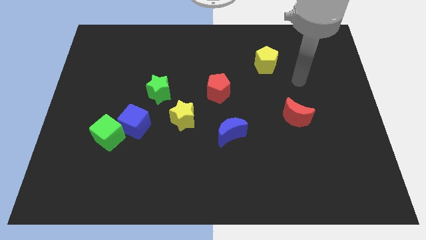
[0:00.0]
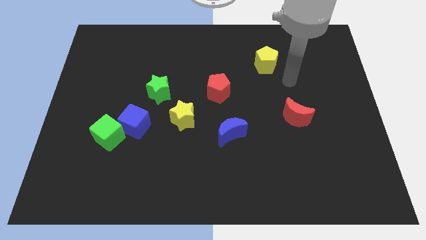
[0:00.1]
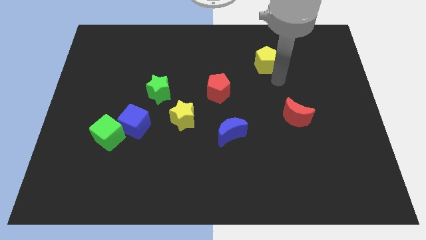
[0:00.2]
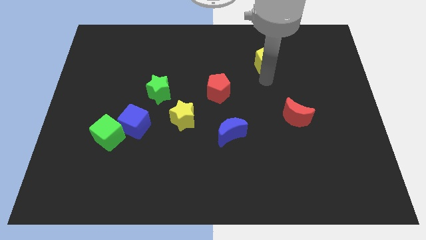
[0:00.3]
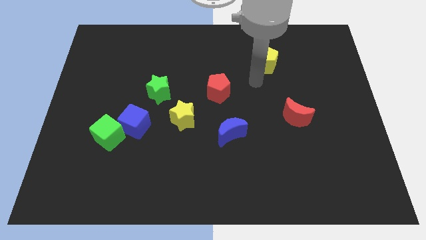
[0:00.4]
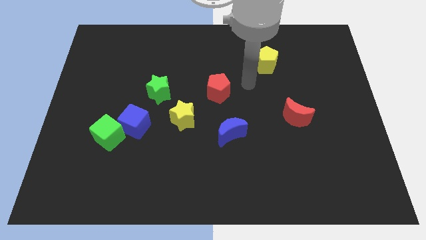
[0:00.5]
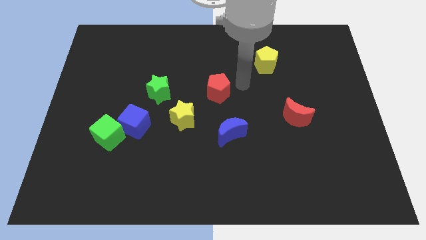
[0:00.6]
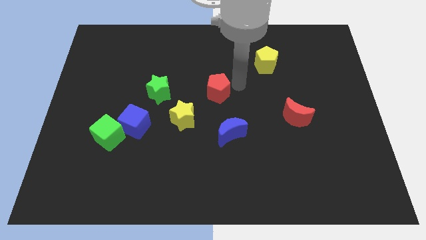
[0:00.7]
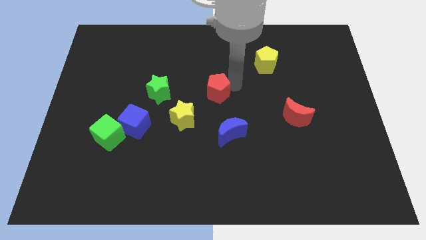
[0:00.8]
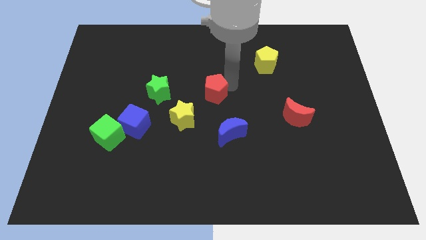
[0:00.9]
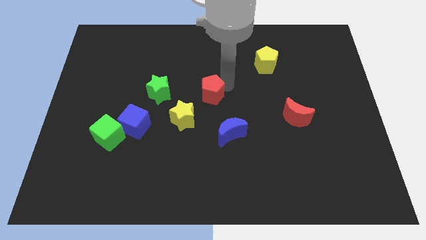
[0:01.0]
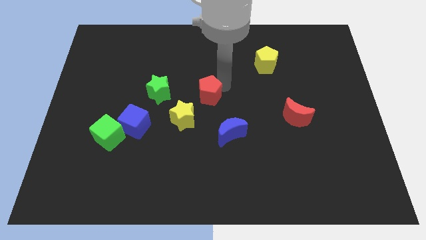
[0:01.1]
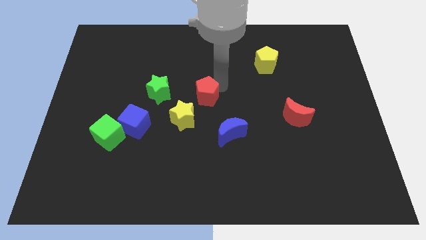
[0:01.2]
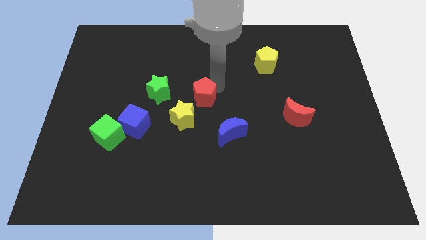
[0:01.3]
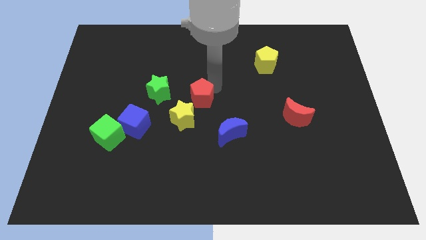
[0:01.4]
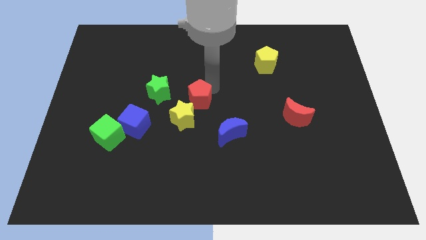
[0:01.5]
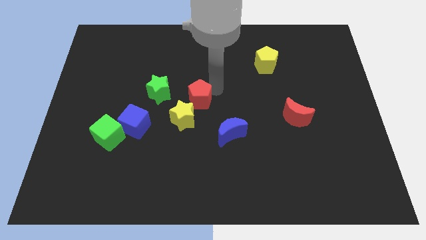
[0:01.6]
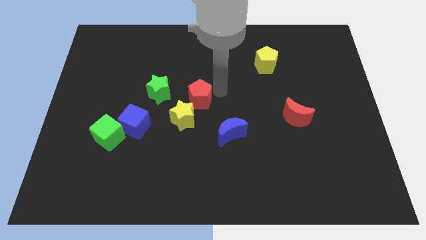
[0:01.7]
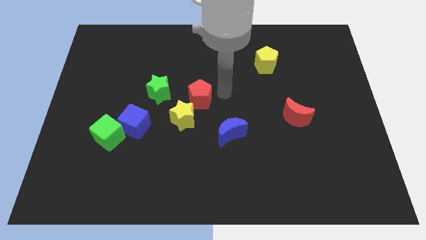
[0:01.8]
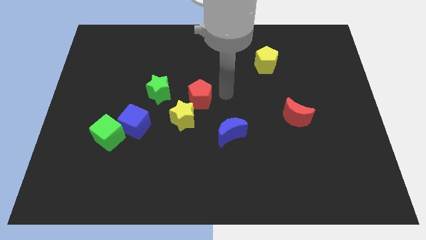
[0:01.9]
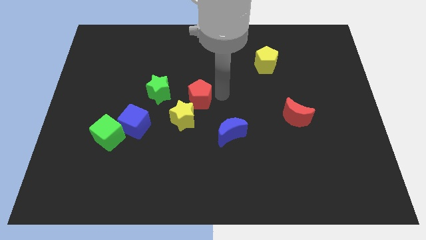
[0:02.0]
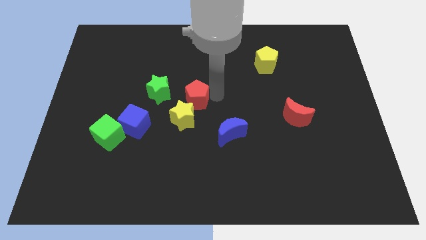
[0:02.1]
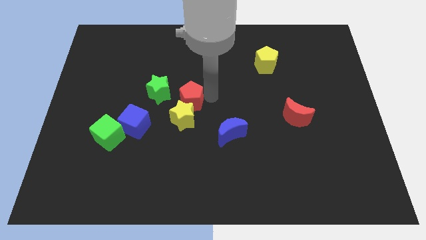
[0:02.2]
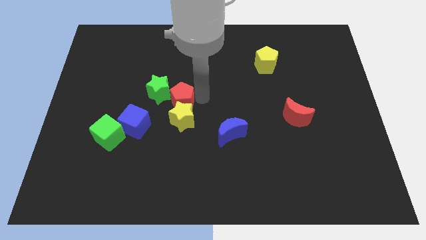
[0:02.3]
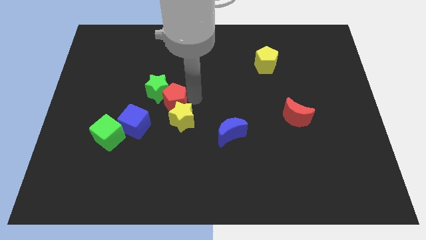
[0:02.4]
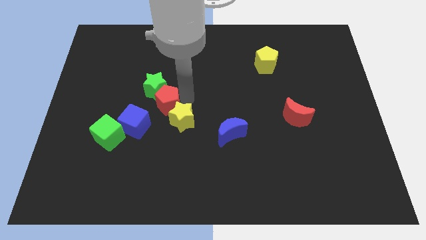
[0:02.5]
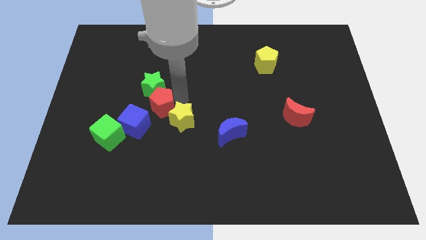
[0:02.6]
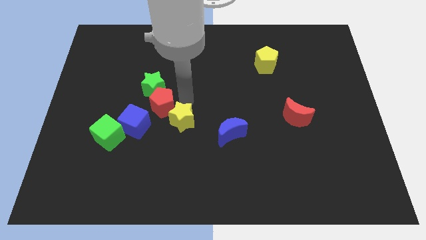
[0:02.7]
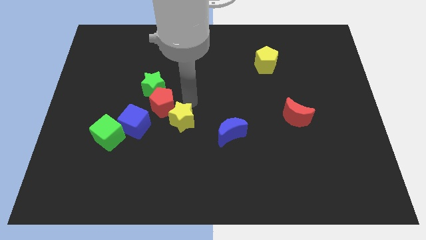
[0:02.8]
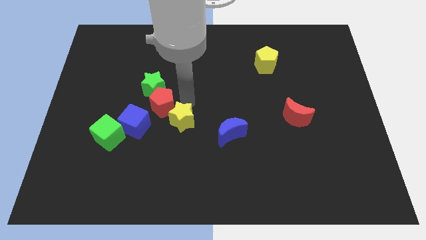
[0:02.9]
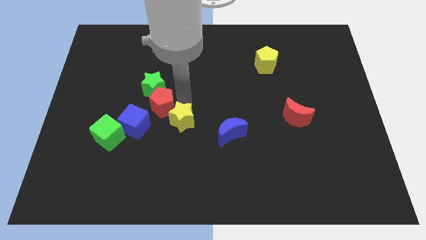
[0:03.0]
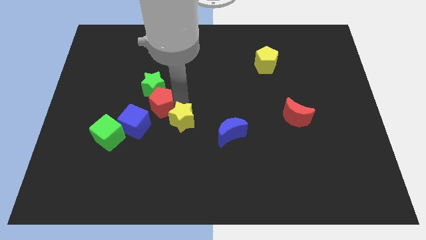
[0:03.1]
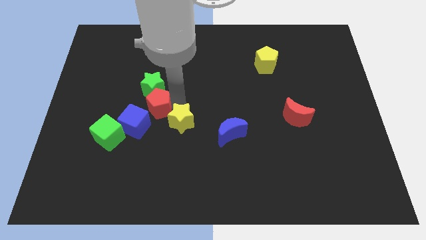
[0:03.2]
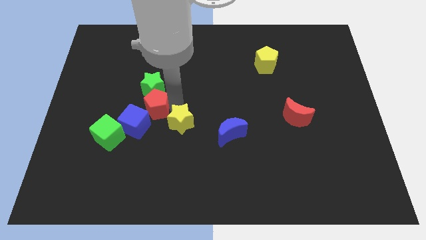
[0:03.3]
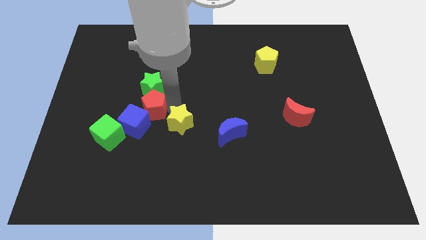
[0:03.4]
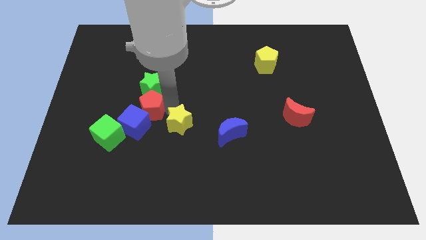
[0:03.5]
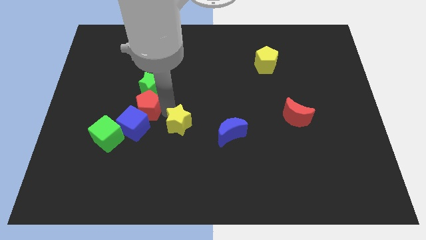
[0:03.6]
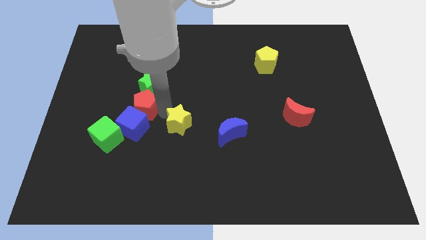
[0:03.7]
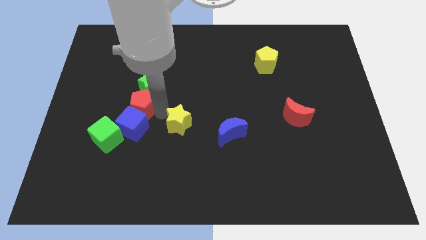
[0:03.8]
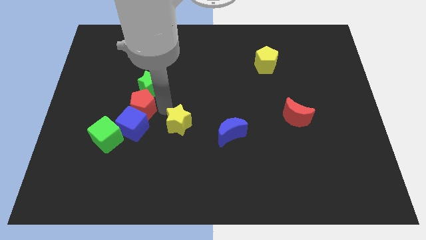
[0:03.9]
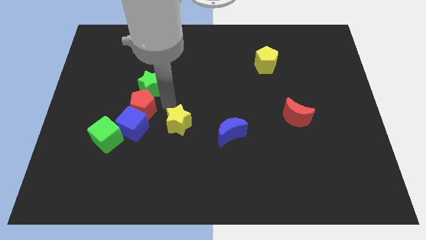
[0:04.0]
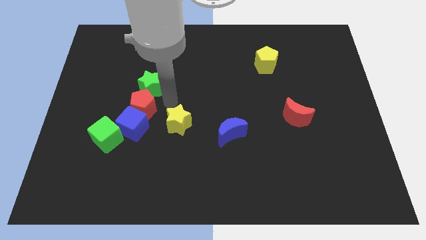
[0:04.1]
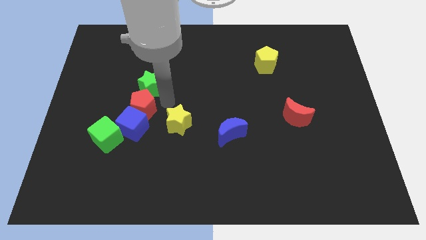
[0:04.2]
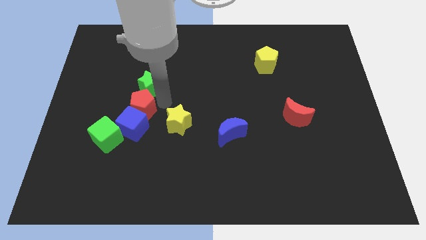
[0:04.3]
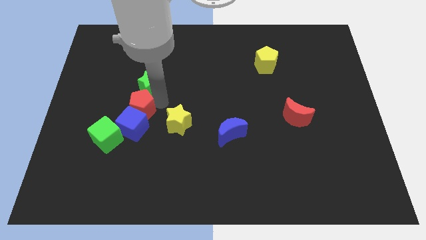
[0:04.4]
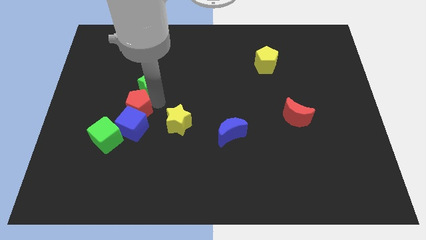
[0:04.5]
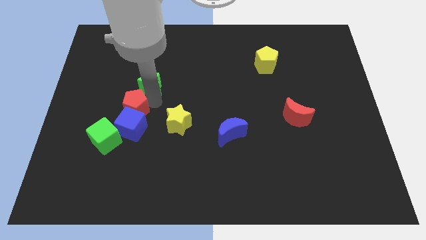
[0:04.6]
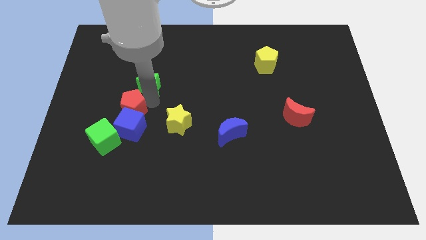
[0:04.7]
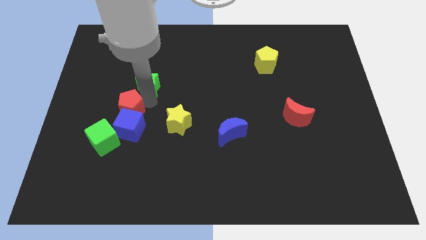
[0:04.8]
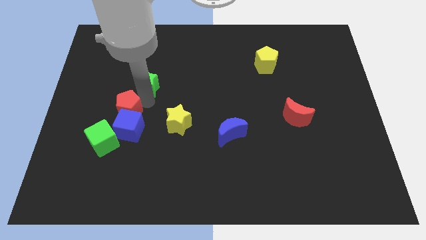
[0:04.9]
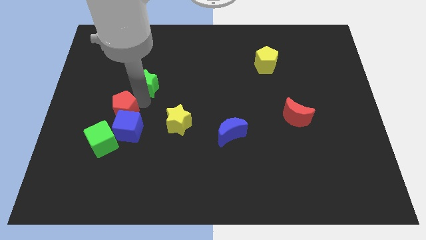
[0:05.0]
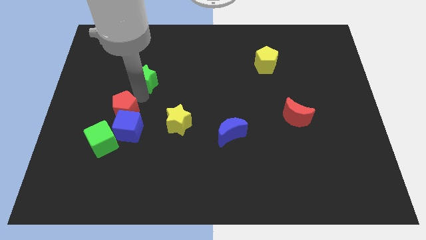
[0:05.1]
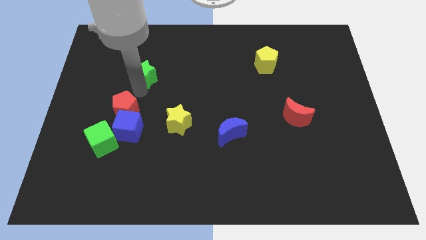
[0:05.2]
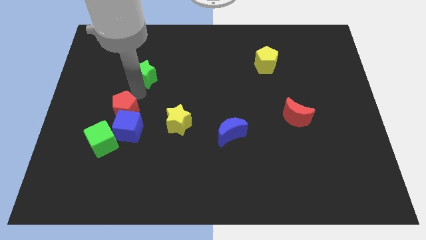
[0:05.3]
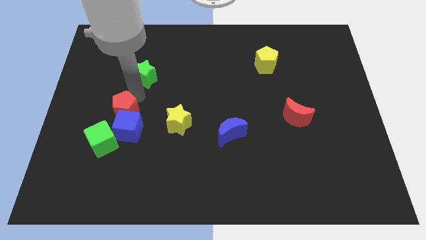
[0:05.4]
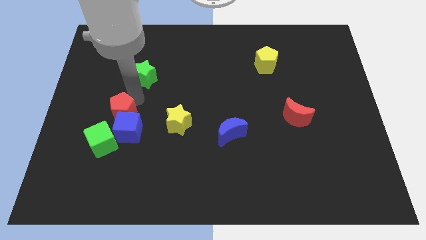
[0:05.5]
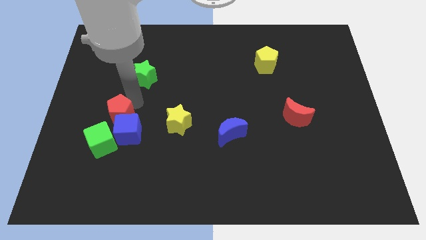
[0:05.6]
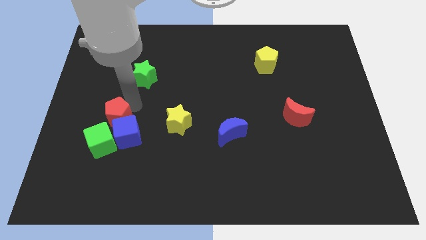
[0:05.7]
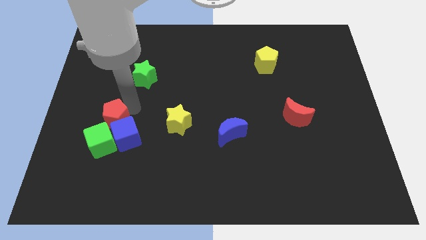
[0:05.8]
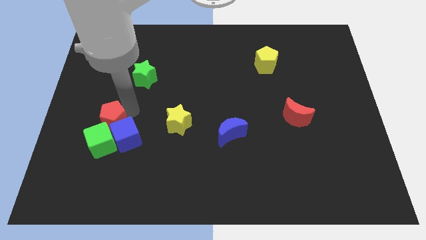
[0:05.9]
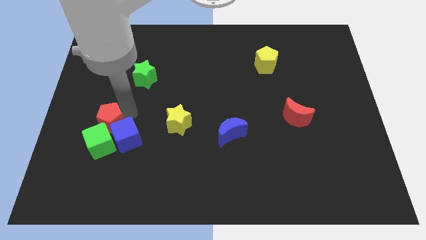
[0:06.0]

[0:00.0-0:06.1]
slide the red pentagon next to the green cube

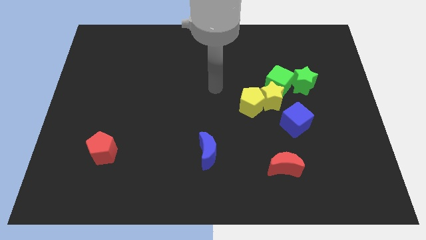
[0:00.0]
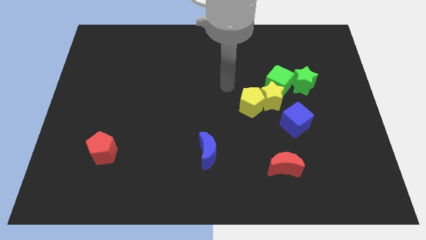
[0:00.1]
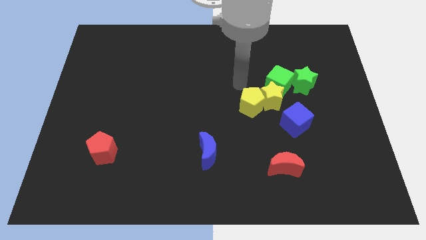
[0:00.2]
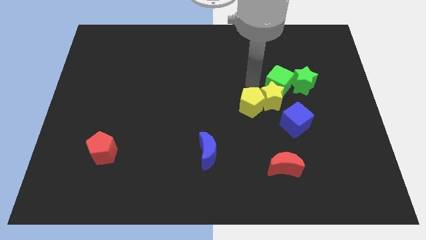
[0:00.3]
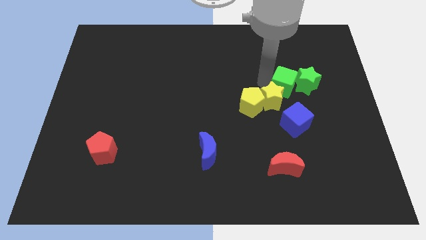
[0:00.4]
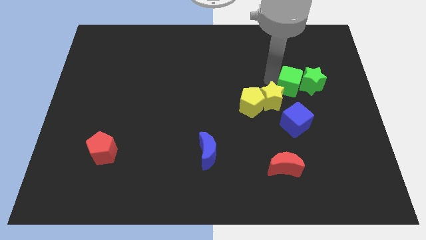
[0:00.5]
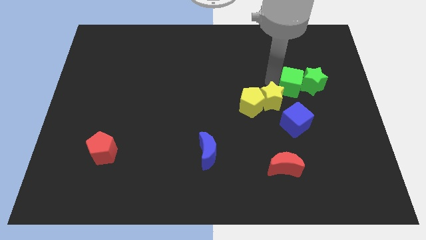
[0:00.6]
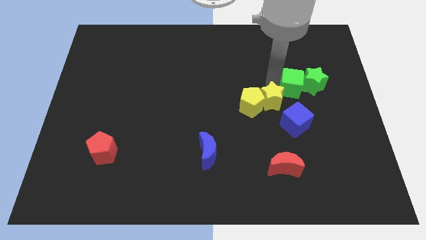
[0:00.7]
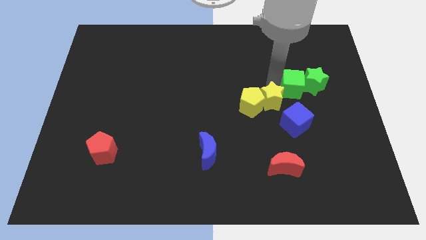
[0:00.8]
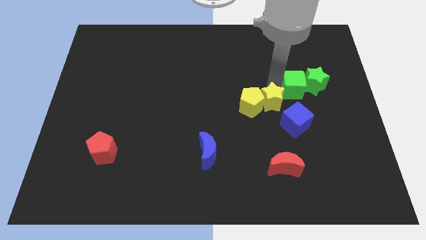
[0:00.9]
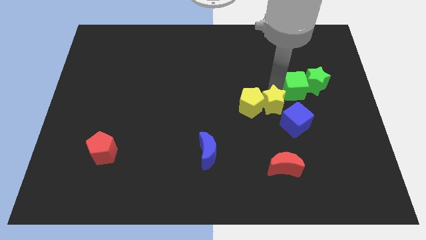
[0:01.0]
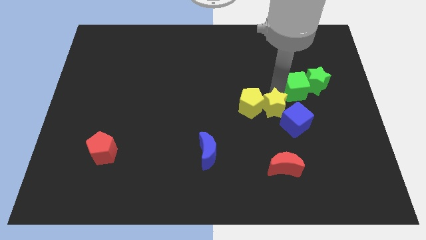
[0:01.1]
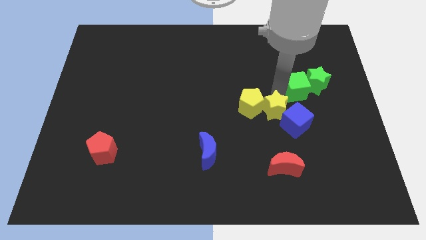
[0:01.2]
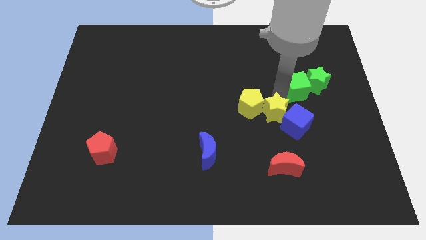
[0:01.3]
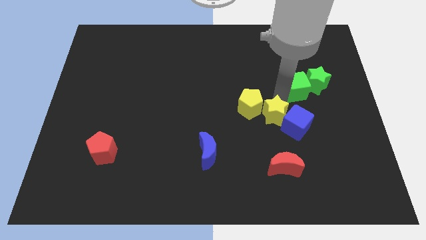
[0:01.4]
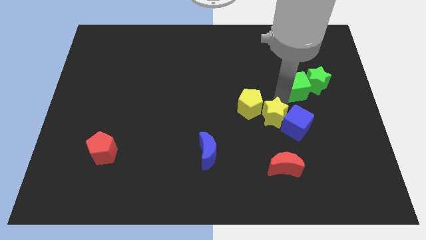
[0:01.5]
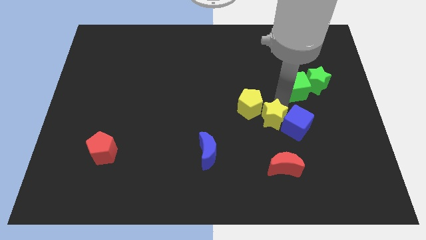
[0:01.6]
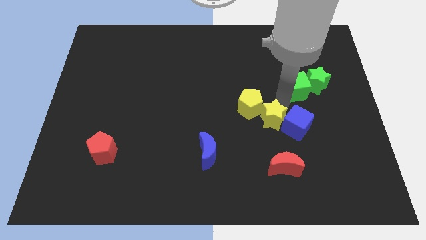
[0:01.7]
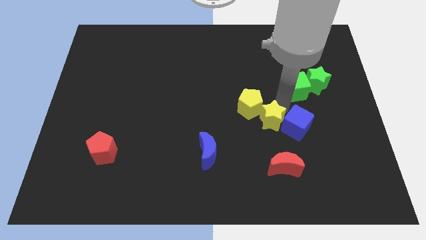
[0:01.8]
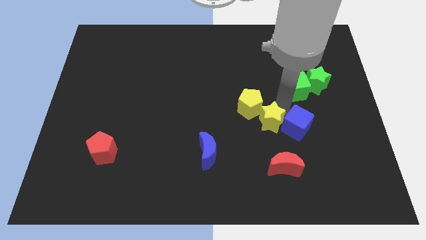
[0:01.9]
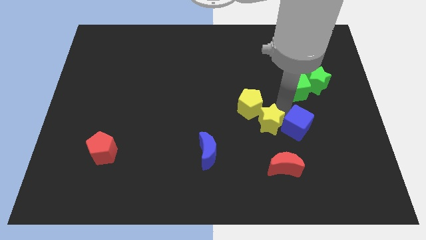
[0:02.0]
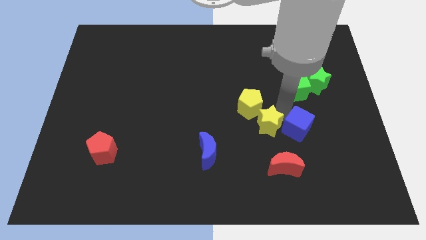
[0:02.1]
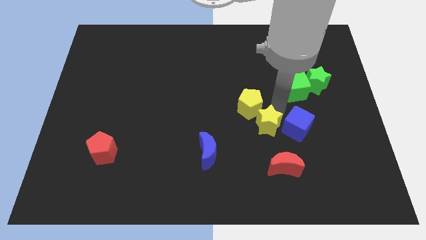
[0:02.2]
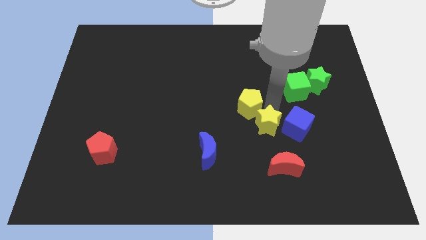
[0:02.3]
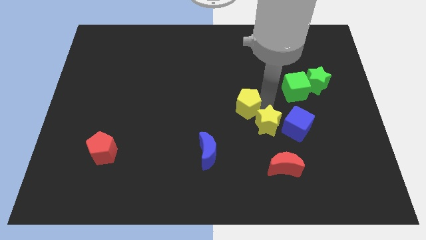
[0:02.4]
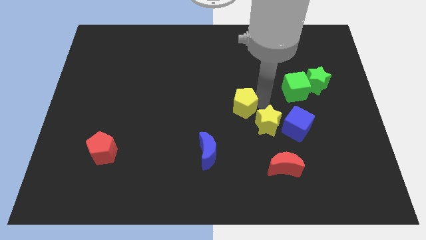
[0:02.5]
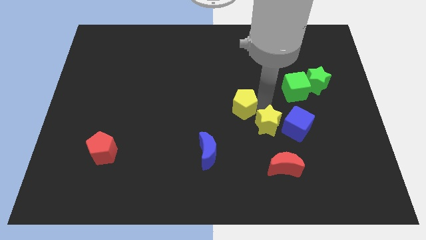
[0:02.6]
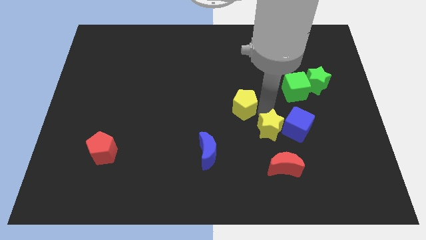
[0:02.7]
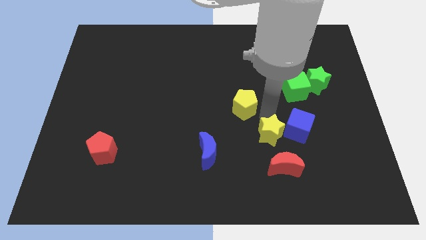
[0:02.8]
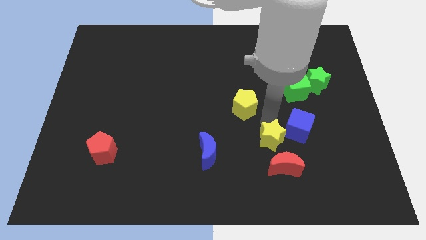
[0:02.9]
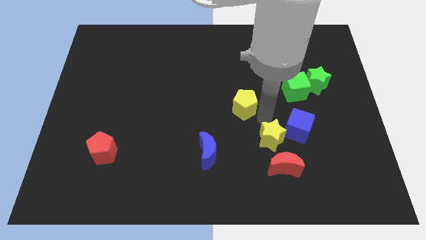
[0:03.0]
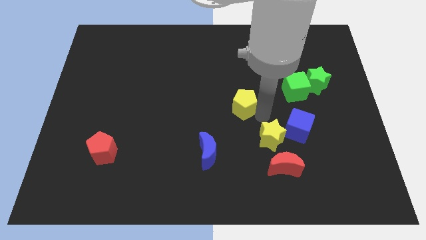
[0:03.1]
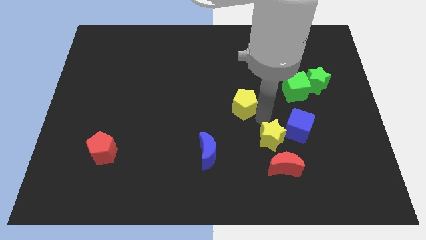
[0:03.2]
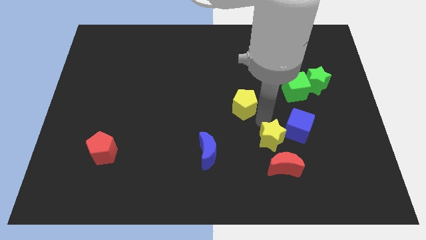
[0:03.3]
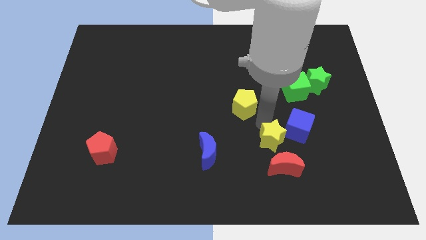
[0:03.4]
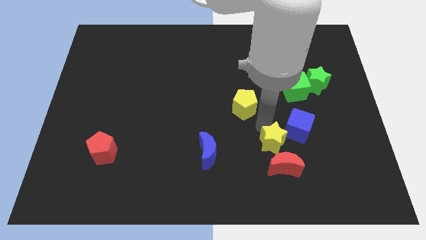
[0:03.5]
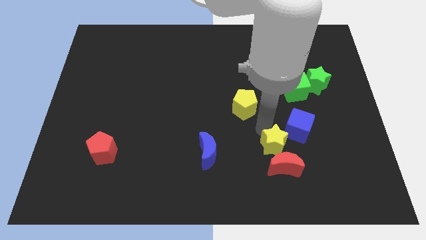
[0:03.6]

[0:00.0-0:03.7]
push the yellow star next to the red moon
